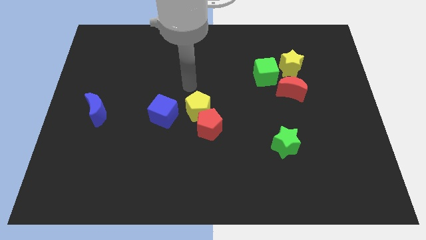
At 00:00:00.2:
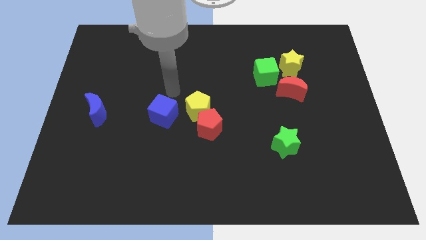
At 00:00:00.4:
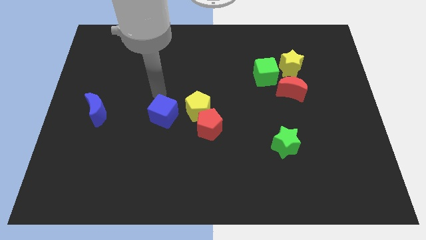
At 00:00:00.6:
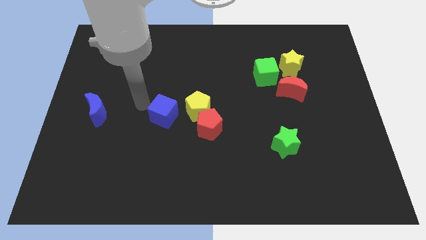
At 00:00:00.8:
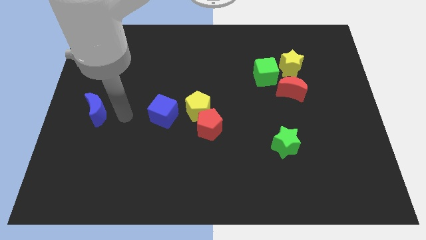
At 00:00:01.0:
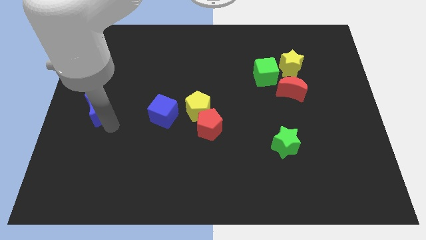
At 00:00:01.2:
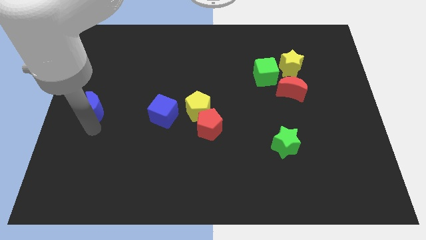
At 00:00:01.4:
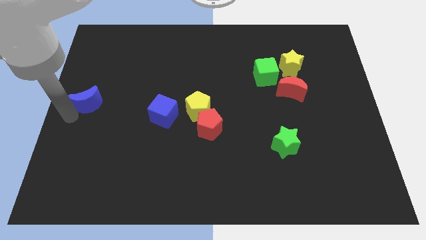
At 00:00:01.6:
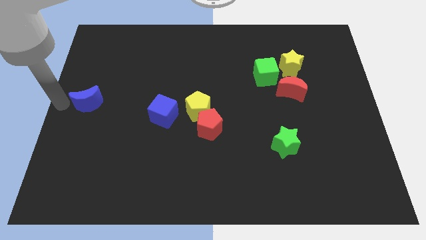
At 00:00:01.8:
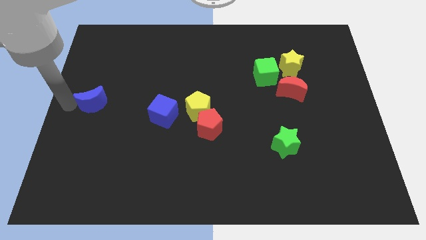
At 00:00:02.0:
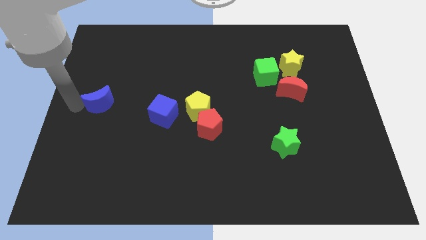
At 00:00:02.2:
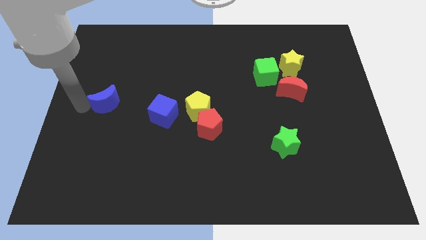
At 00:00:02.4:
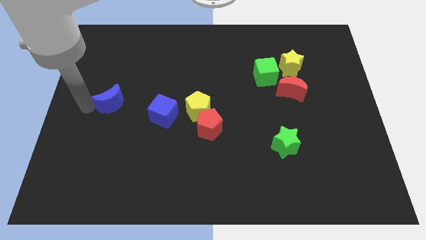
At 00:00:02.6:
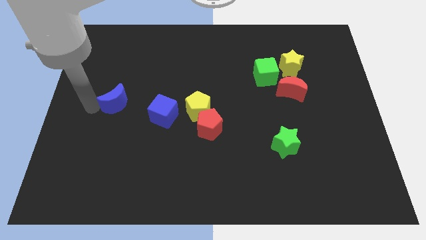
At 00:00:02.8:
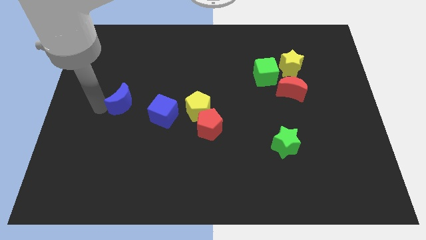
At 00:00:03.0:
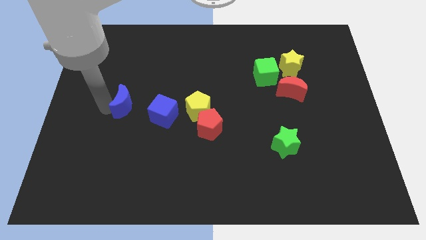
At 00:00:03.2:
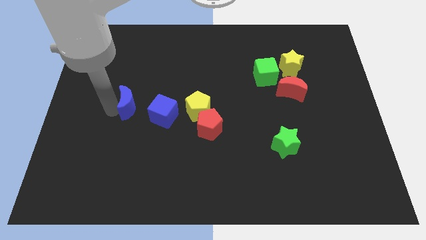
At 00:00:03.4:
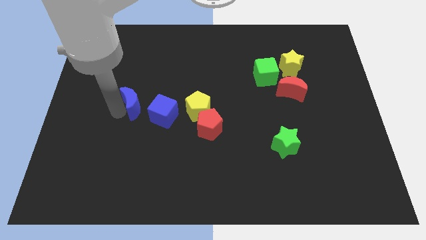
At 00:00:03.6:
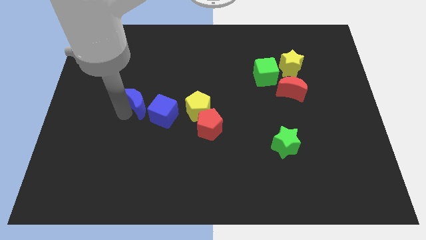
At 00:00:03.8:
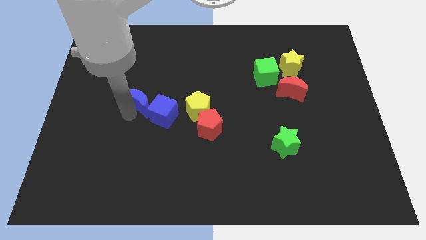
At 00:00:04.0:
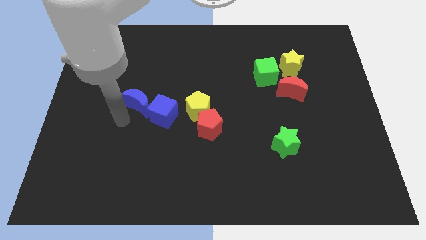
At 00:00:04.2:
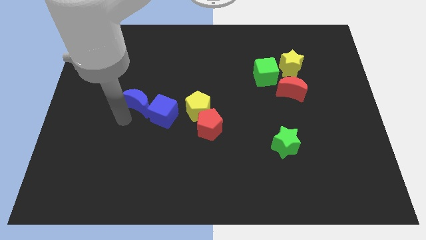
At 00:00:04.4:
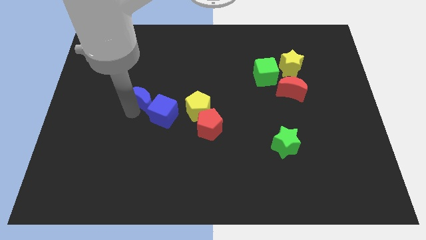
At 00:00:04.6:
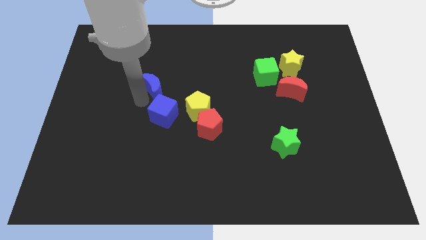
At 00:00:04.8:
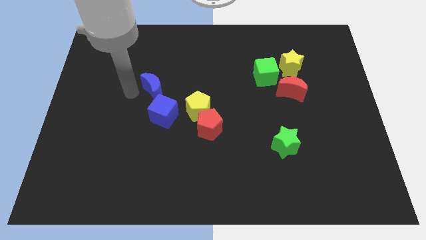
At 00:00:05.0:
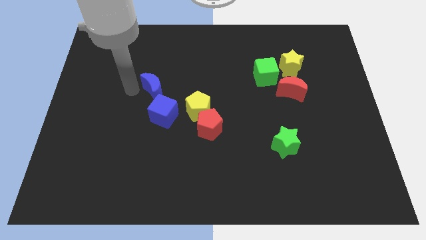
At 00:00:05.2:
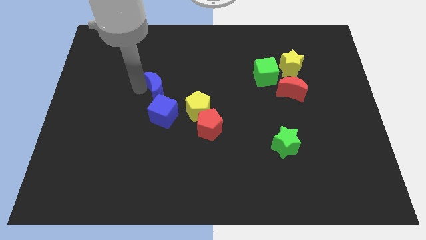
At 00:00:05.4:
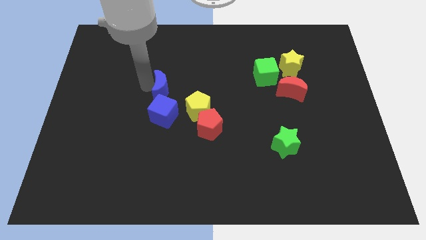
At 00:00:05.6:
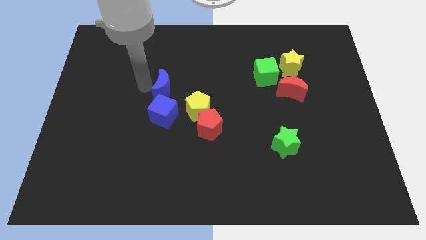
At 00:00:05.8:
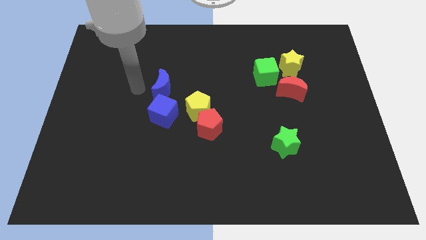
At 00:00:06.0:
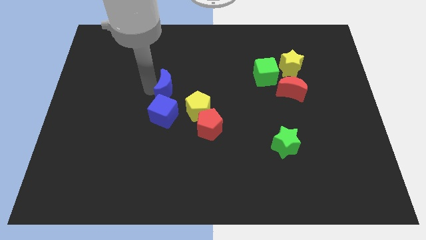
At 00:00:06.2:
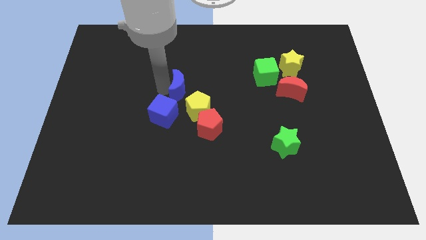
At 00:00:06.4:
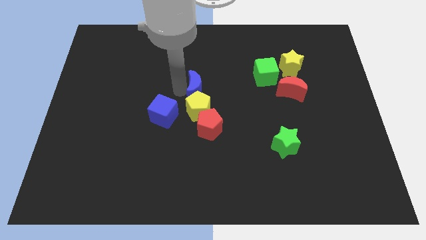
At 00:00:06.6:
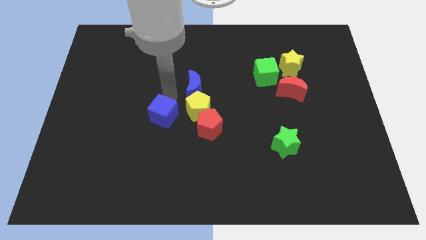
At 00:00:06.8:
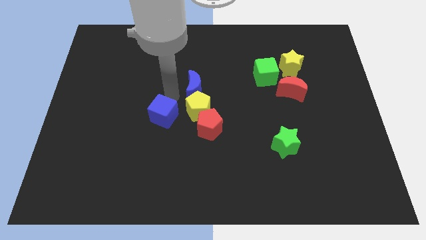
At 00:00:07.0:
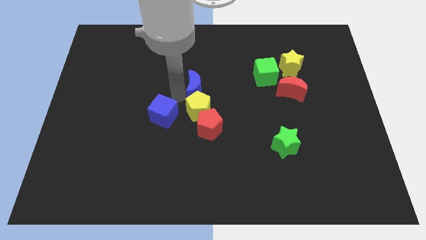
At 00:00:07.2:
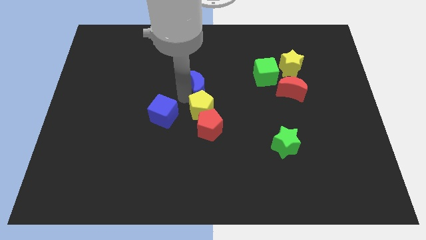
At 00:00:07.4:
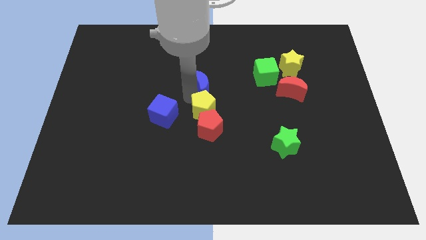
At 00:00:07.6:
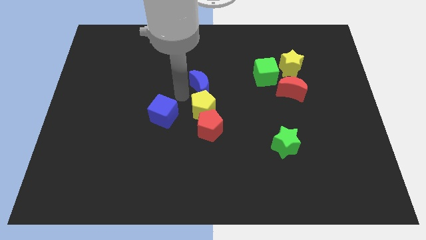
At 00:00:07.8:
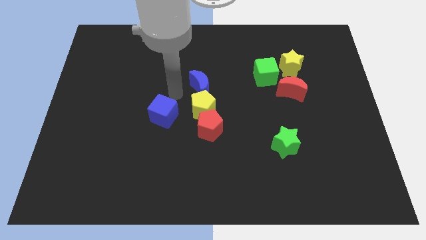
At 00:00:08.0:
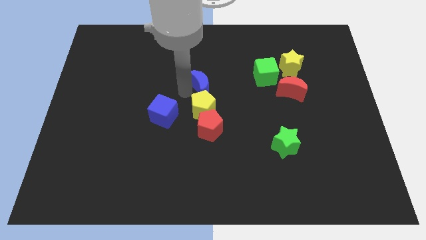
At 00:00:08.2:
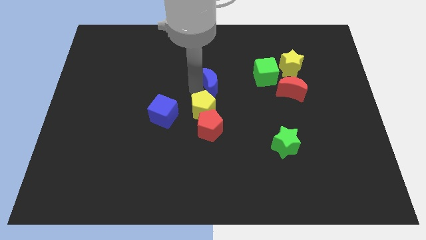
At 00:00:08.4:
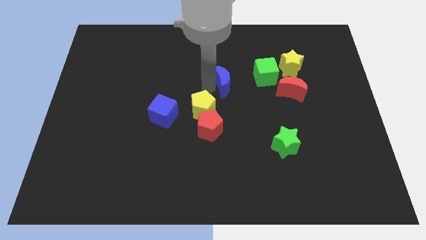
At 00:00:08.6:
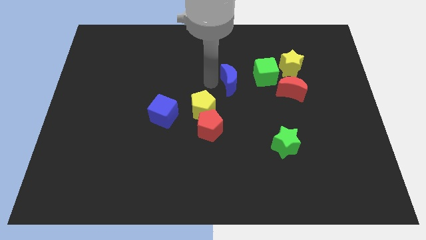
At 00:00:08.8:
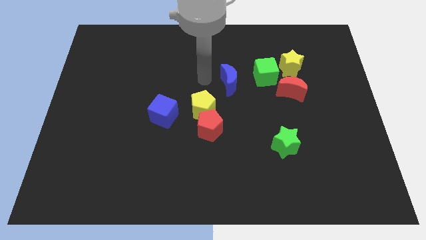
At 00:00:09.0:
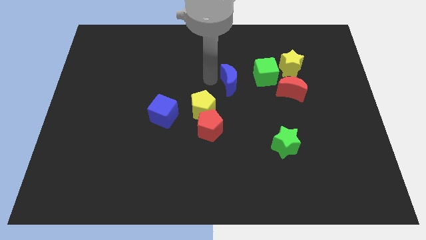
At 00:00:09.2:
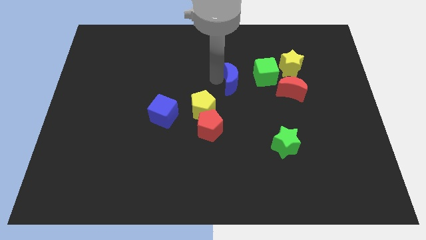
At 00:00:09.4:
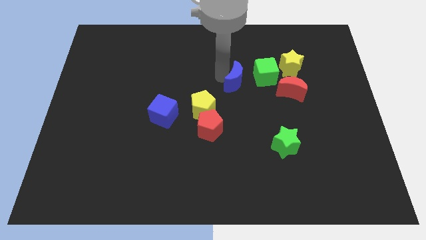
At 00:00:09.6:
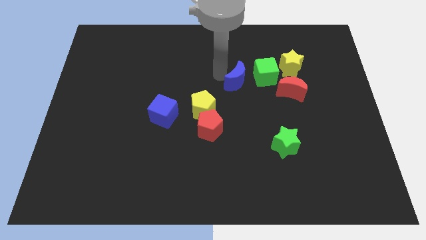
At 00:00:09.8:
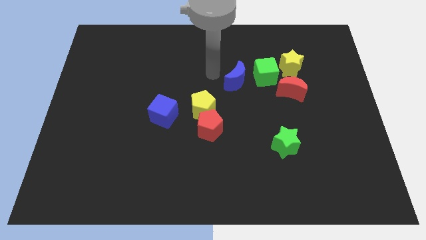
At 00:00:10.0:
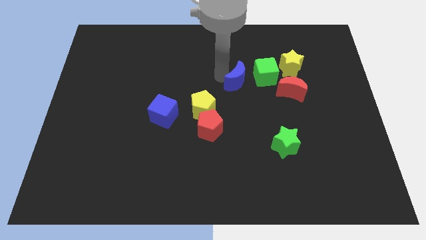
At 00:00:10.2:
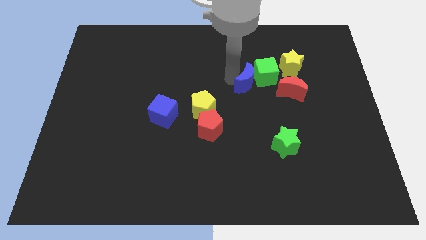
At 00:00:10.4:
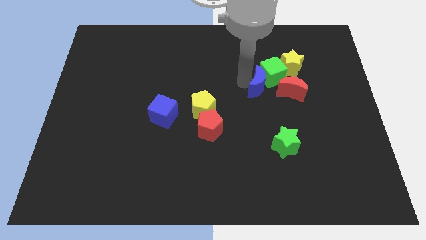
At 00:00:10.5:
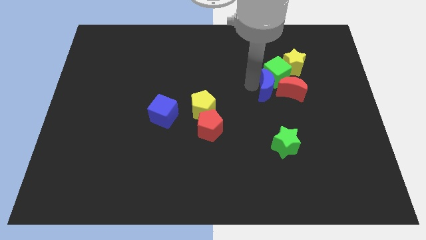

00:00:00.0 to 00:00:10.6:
slide the blue moon to the red moon

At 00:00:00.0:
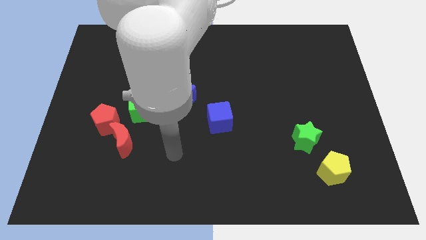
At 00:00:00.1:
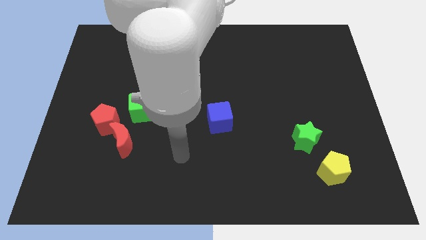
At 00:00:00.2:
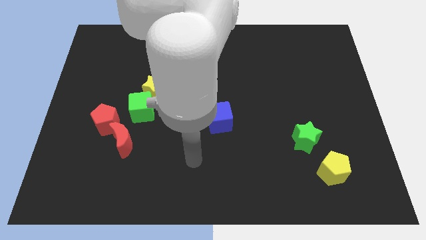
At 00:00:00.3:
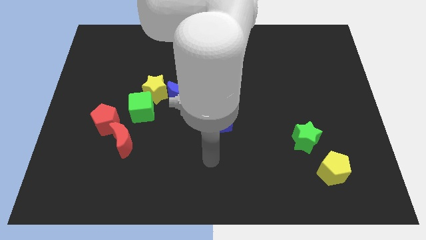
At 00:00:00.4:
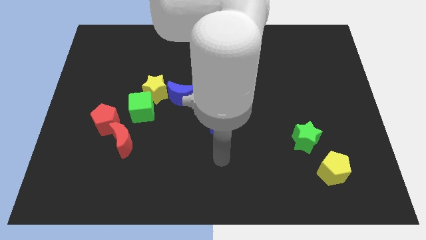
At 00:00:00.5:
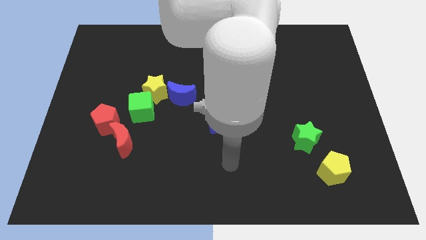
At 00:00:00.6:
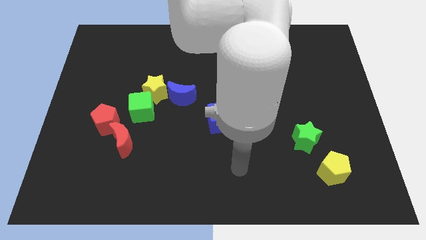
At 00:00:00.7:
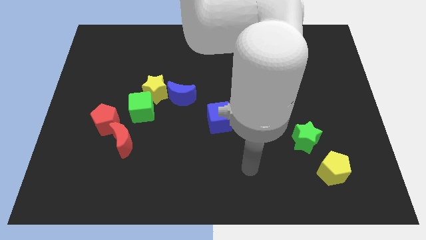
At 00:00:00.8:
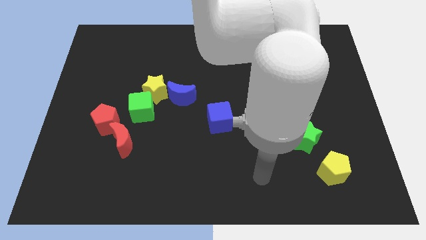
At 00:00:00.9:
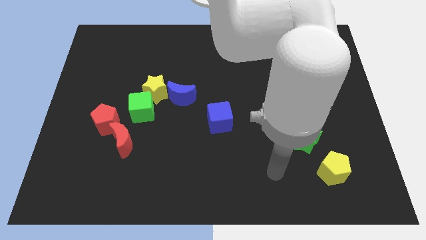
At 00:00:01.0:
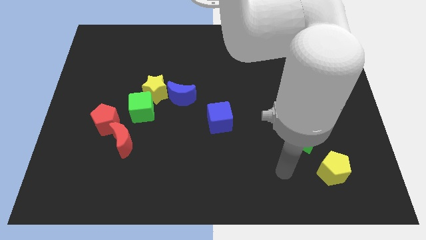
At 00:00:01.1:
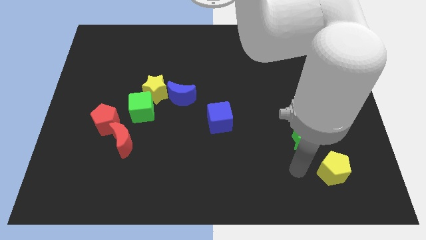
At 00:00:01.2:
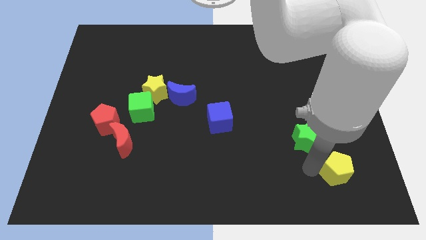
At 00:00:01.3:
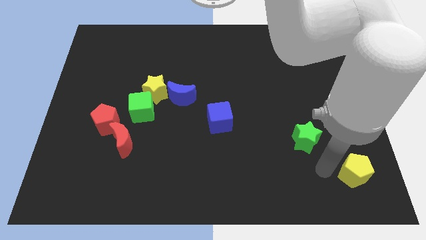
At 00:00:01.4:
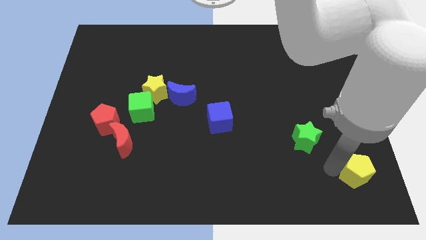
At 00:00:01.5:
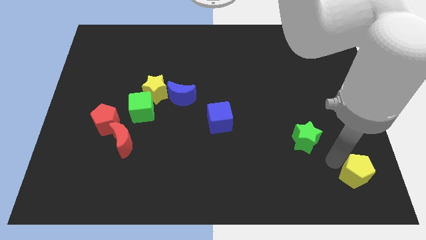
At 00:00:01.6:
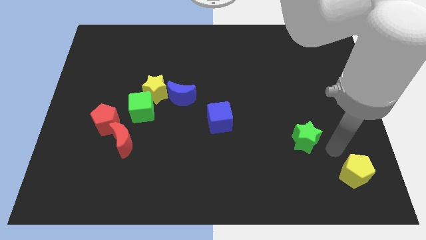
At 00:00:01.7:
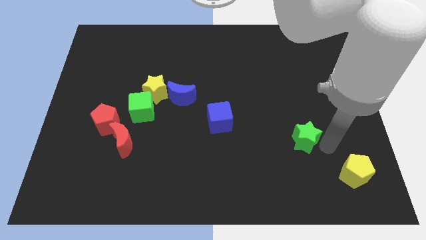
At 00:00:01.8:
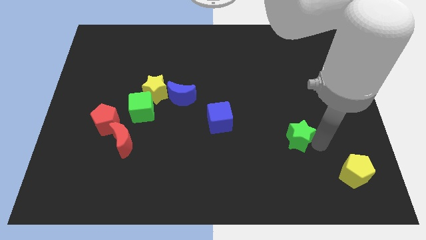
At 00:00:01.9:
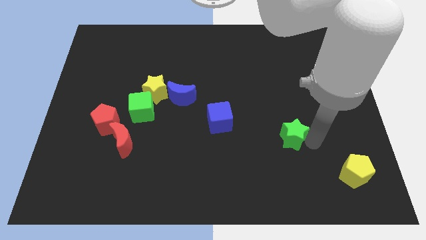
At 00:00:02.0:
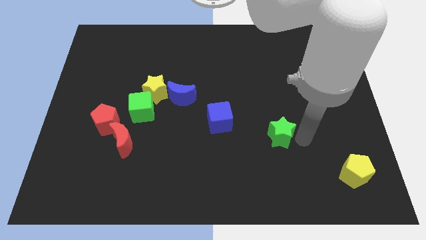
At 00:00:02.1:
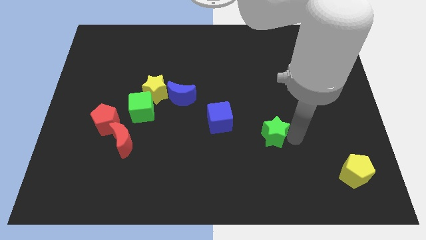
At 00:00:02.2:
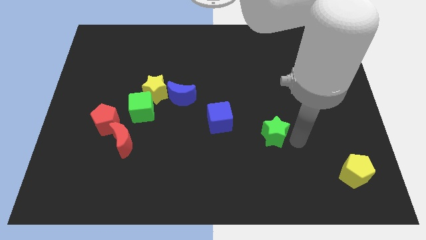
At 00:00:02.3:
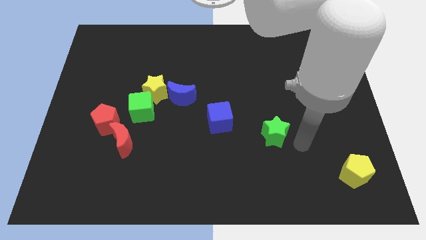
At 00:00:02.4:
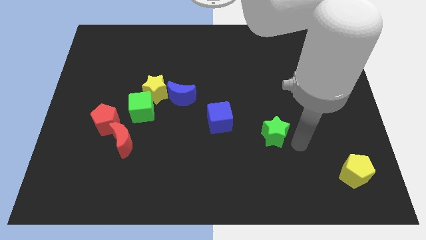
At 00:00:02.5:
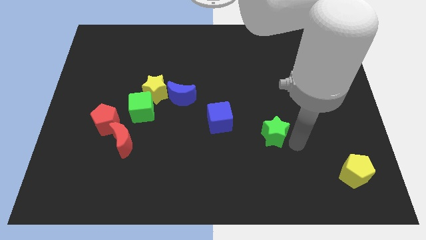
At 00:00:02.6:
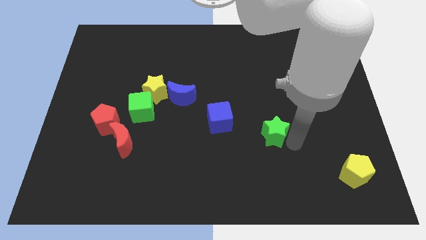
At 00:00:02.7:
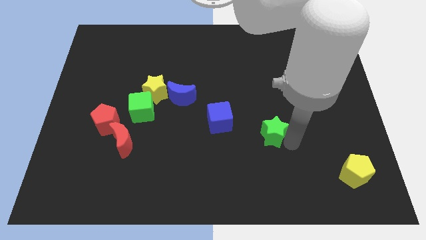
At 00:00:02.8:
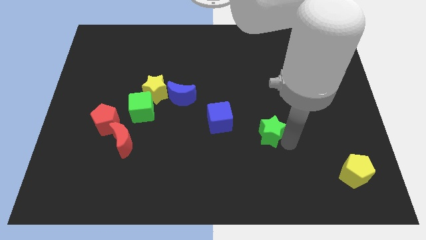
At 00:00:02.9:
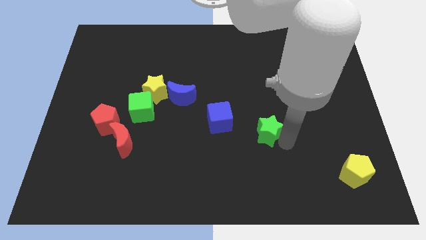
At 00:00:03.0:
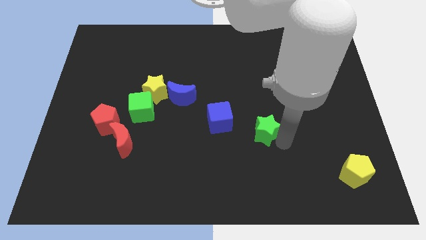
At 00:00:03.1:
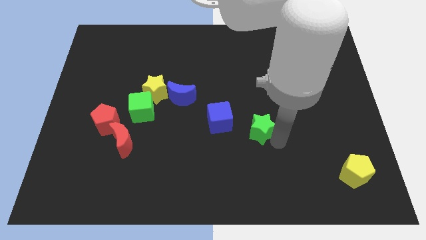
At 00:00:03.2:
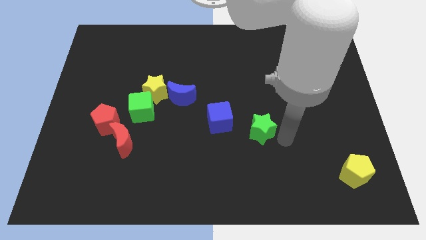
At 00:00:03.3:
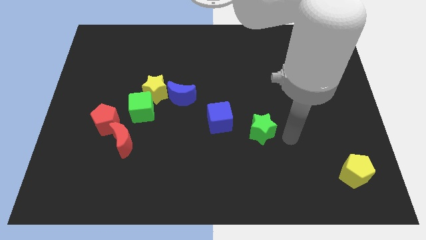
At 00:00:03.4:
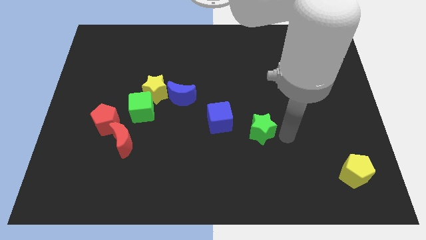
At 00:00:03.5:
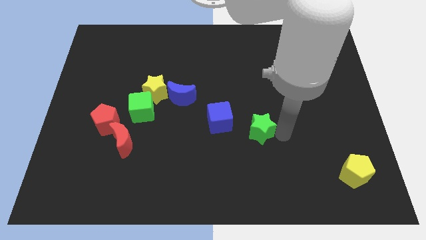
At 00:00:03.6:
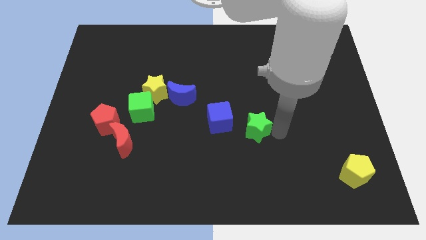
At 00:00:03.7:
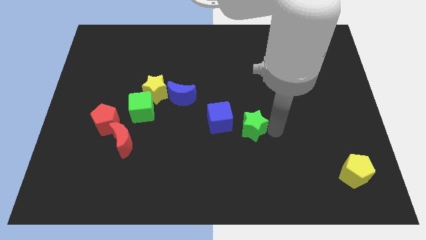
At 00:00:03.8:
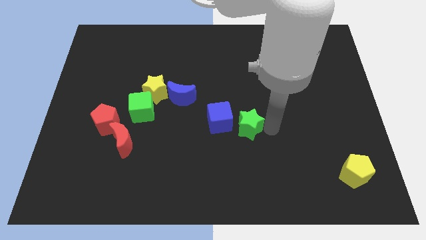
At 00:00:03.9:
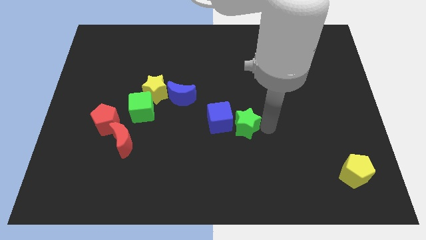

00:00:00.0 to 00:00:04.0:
push the green star close to the blue cube
